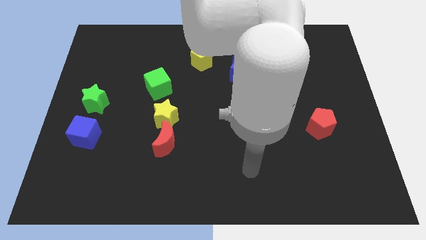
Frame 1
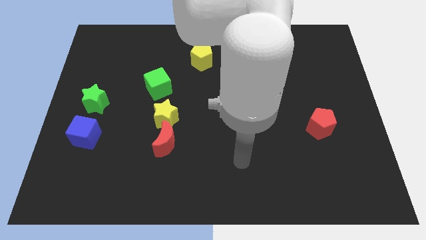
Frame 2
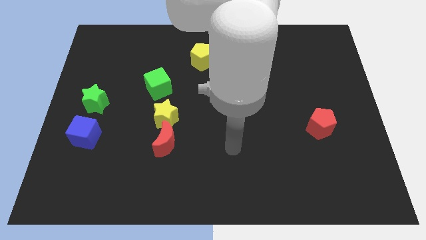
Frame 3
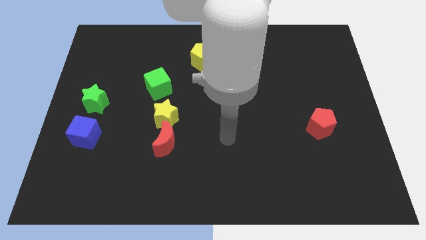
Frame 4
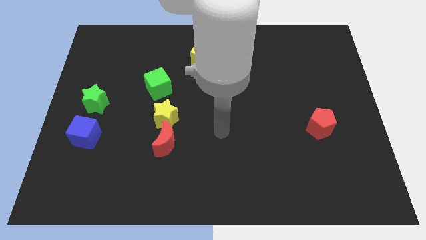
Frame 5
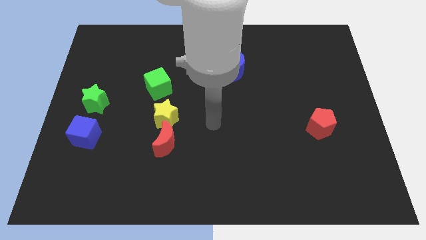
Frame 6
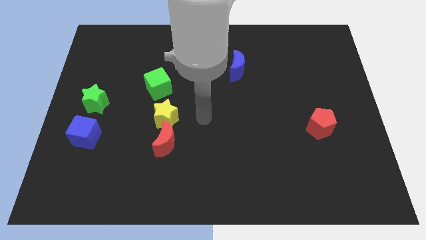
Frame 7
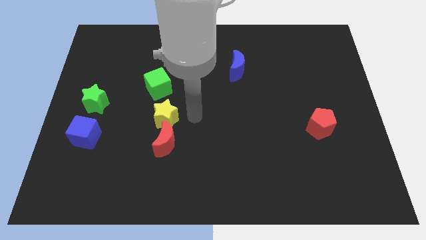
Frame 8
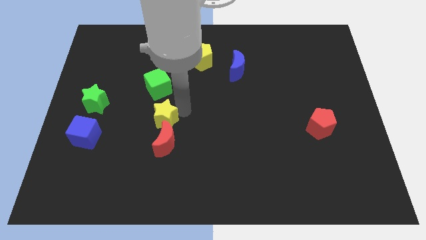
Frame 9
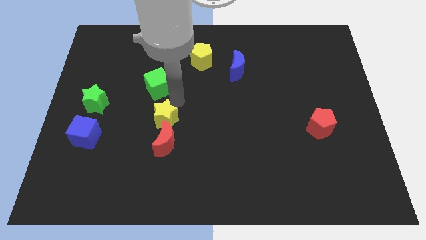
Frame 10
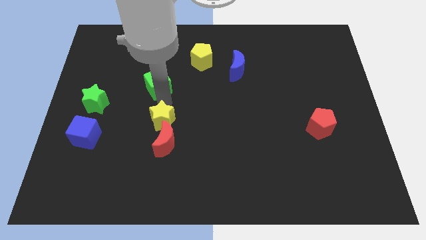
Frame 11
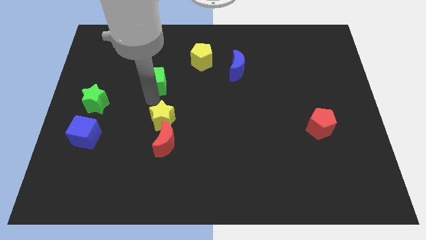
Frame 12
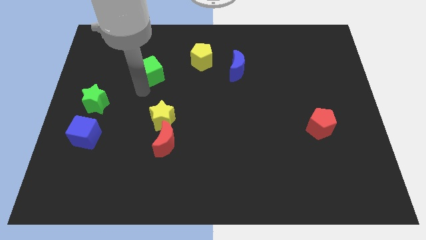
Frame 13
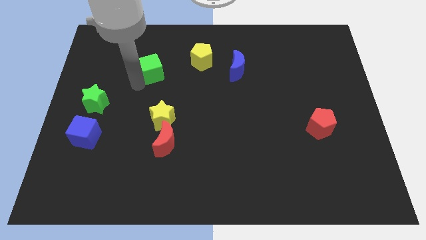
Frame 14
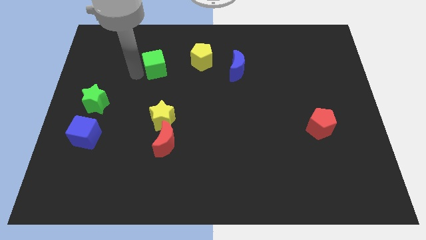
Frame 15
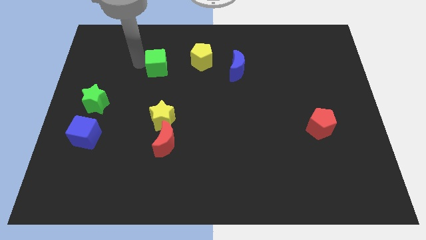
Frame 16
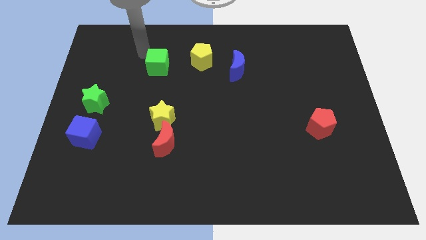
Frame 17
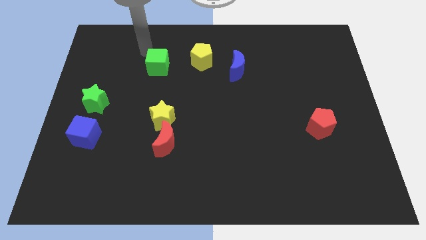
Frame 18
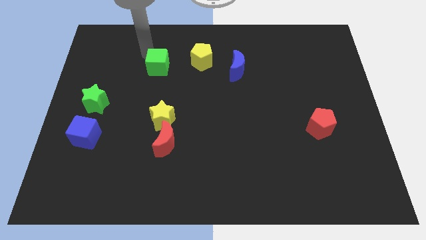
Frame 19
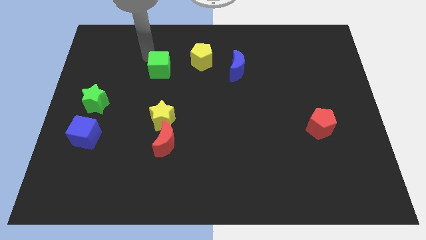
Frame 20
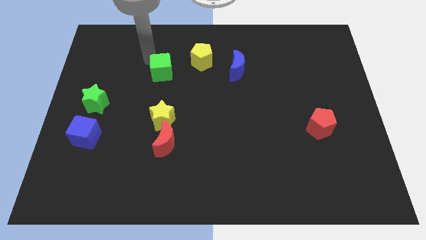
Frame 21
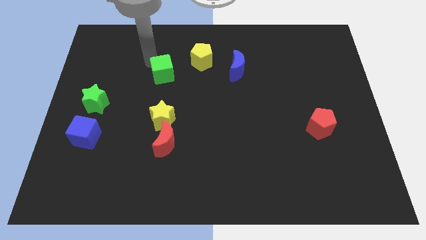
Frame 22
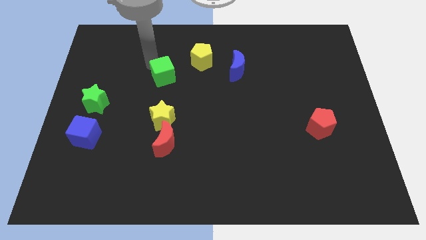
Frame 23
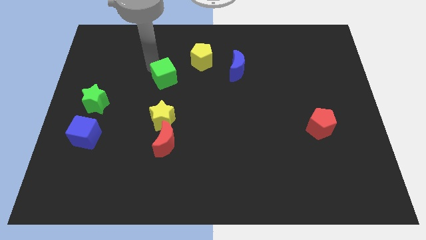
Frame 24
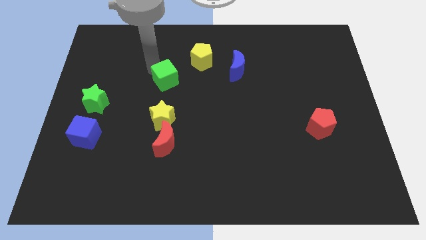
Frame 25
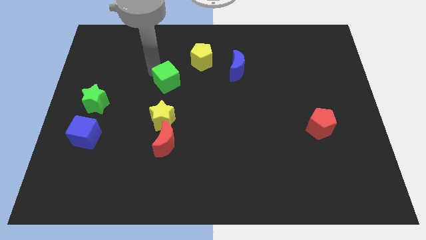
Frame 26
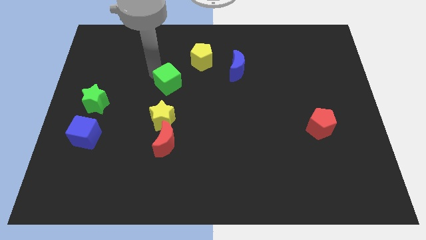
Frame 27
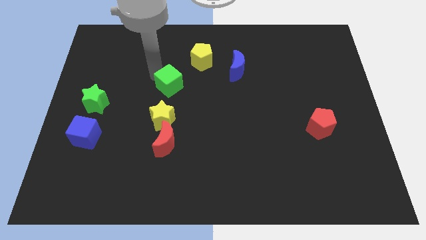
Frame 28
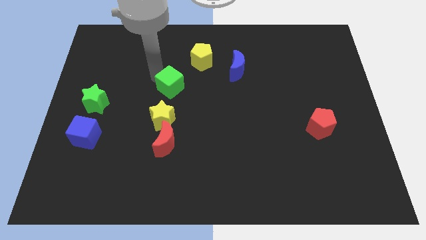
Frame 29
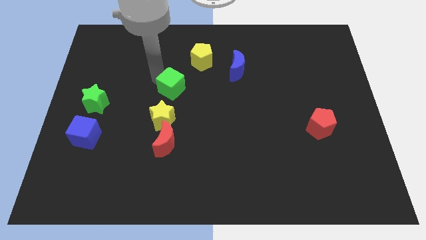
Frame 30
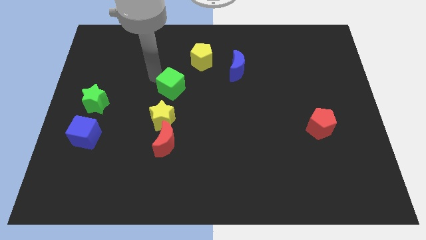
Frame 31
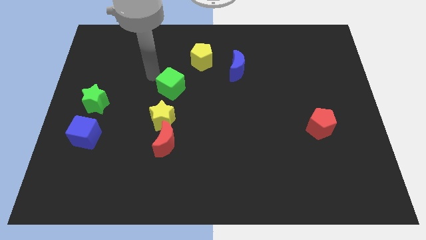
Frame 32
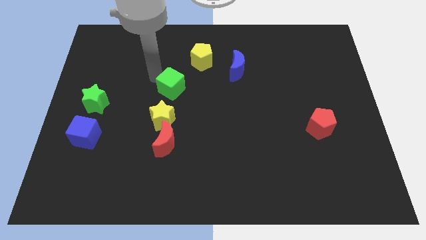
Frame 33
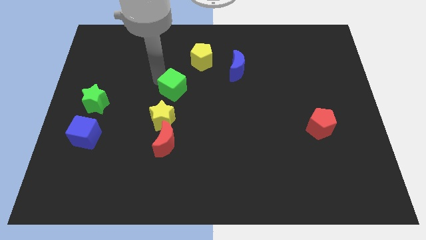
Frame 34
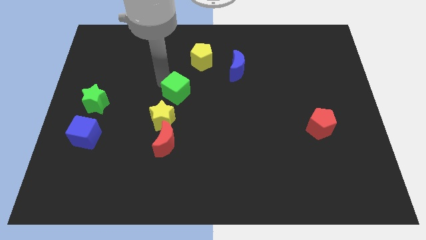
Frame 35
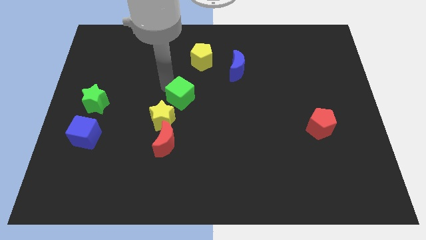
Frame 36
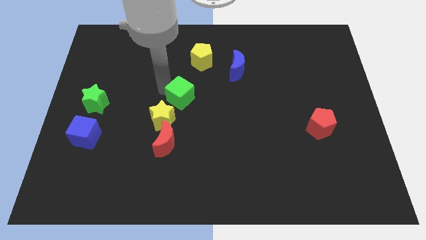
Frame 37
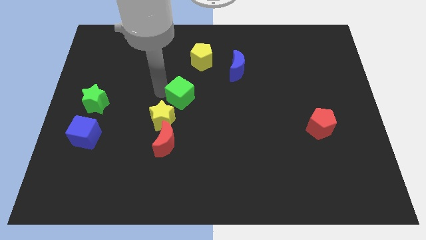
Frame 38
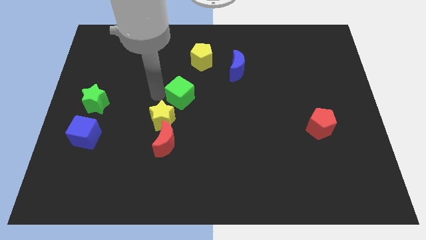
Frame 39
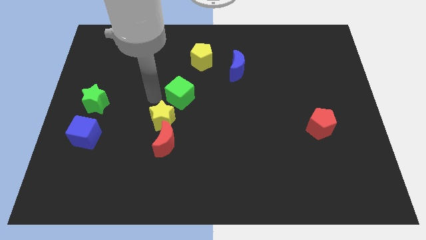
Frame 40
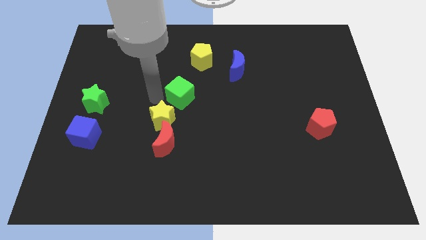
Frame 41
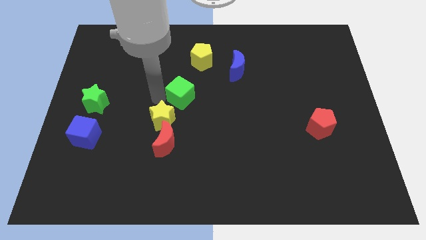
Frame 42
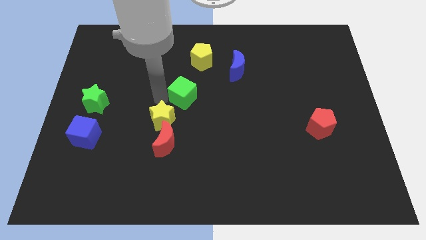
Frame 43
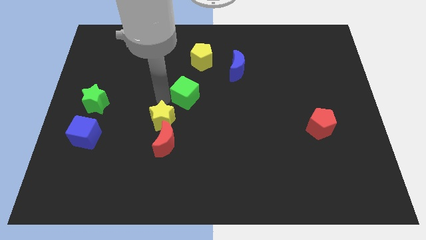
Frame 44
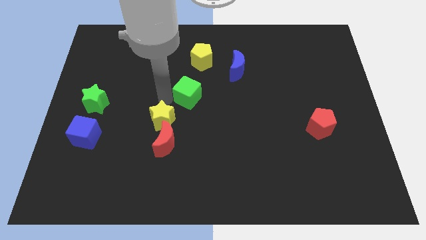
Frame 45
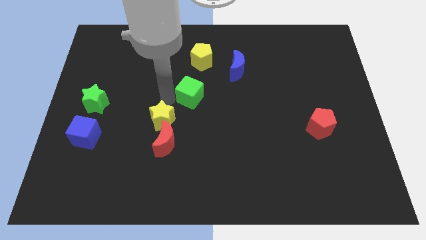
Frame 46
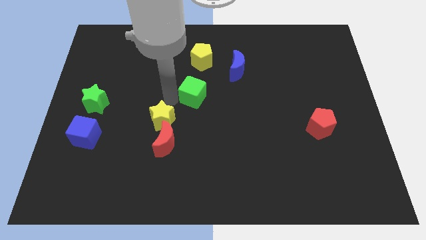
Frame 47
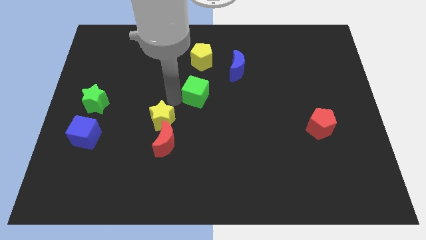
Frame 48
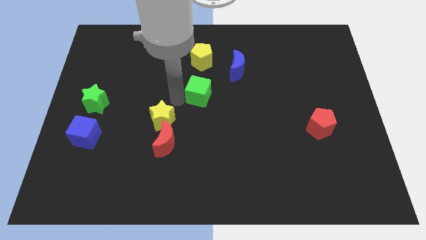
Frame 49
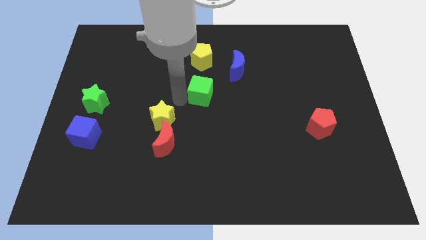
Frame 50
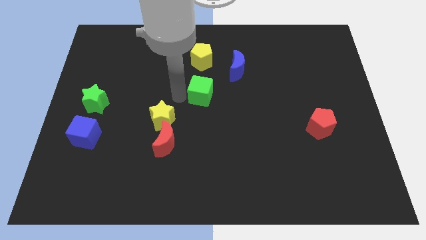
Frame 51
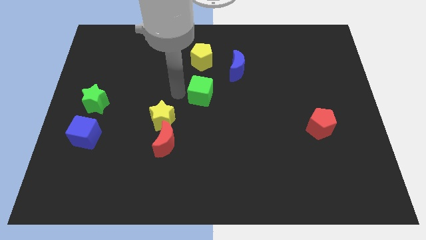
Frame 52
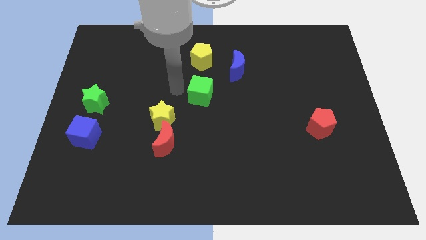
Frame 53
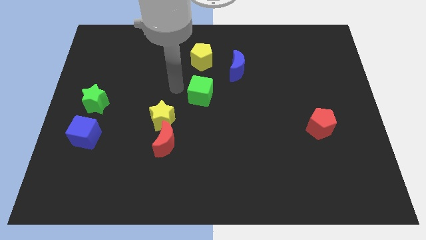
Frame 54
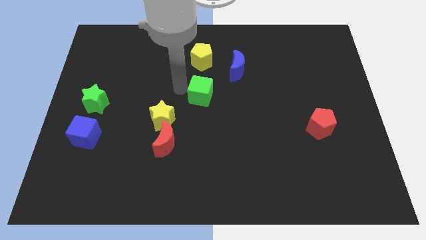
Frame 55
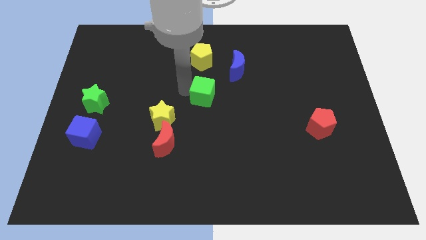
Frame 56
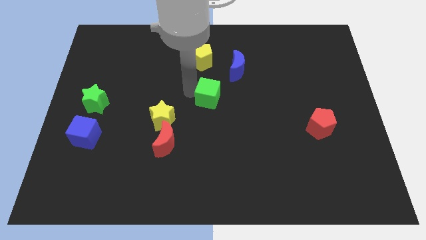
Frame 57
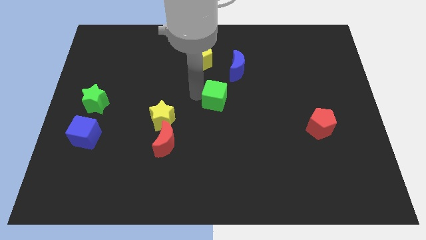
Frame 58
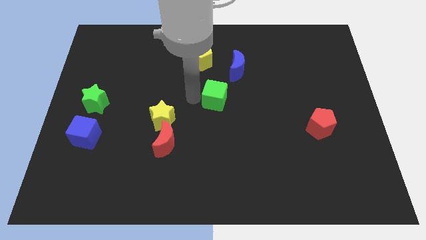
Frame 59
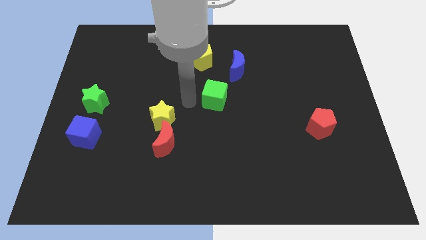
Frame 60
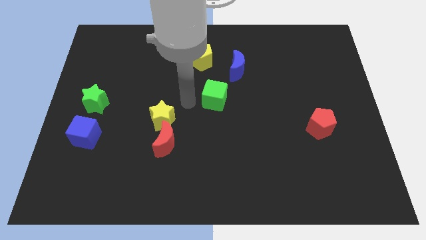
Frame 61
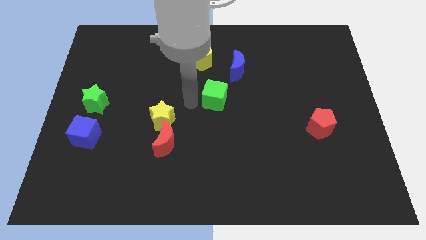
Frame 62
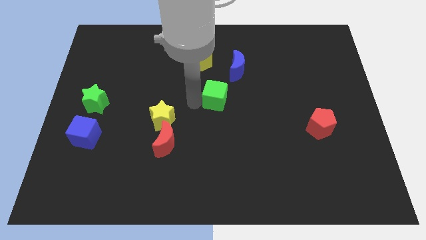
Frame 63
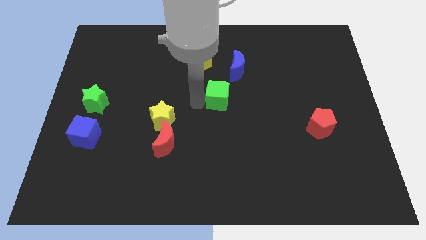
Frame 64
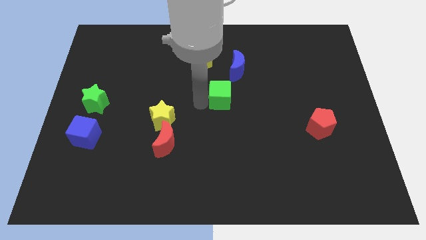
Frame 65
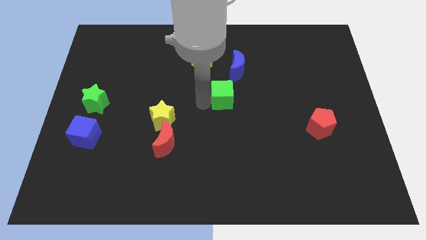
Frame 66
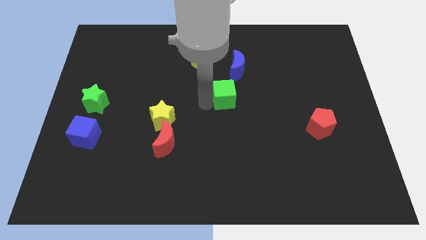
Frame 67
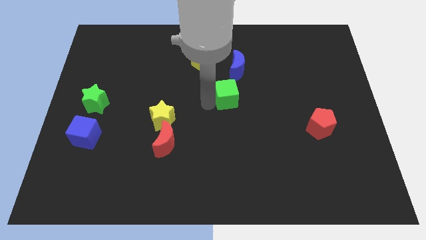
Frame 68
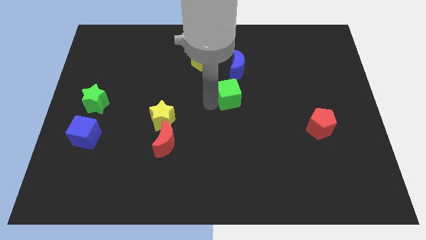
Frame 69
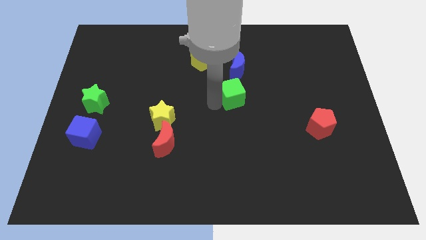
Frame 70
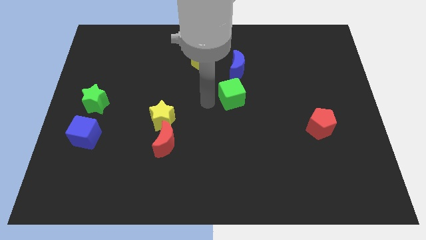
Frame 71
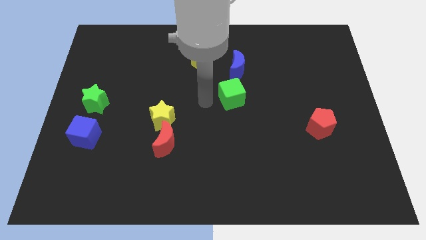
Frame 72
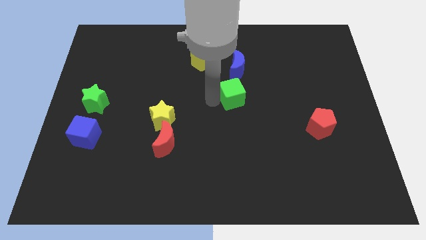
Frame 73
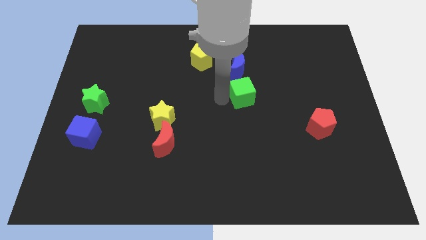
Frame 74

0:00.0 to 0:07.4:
push the green cube to the right

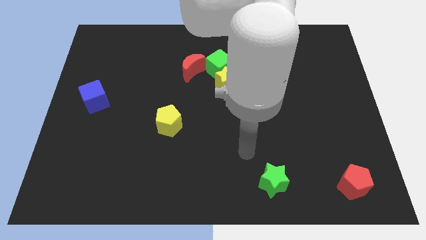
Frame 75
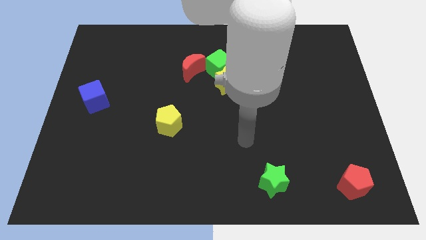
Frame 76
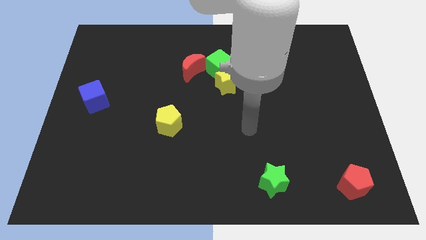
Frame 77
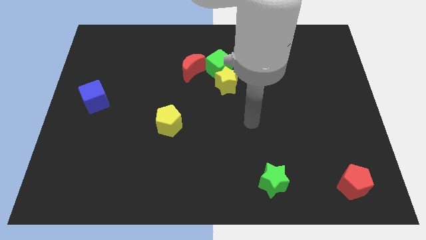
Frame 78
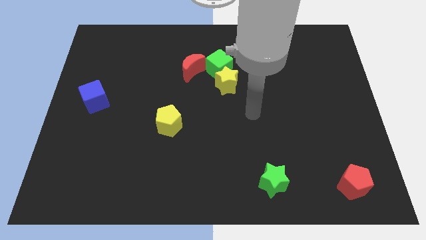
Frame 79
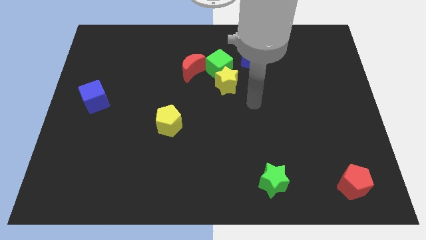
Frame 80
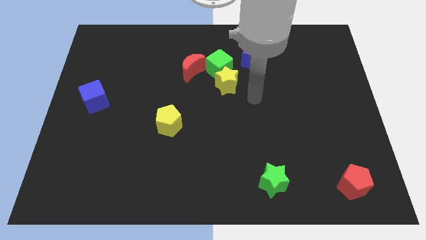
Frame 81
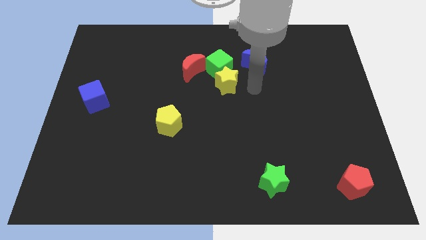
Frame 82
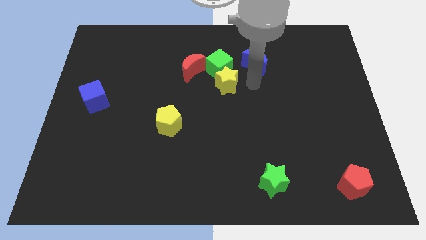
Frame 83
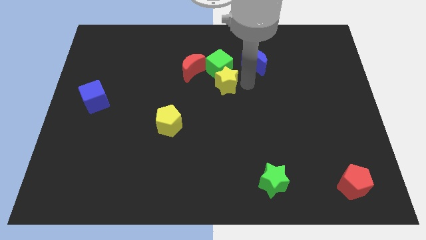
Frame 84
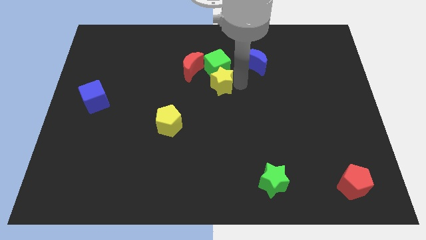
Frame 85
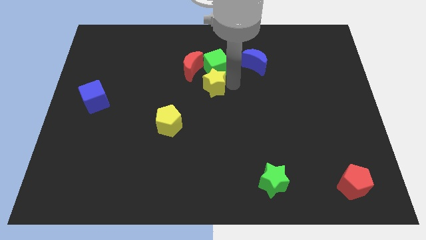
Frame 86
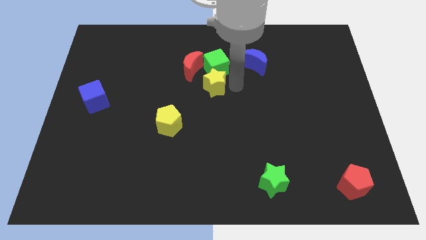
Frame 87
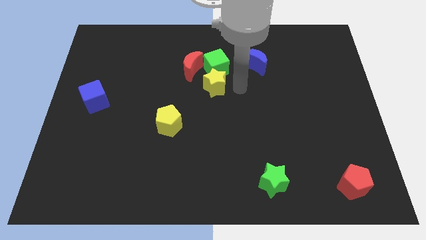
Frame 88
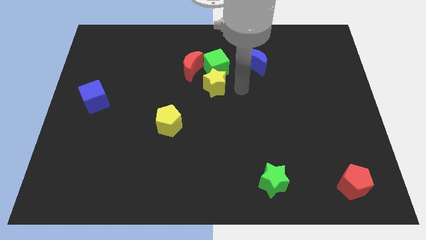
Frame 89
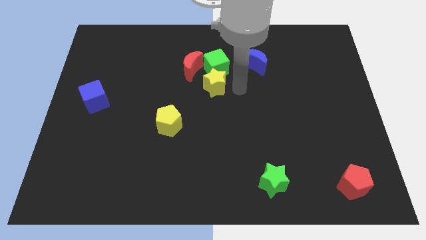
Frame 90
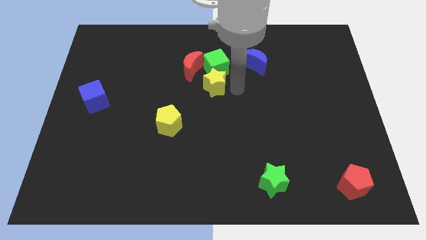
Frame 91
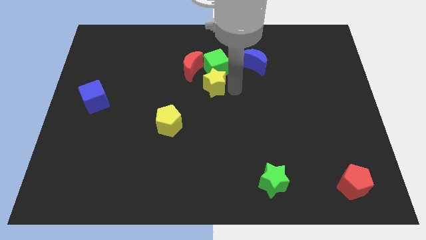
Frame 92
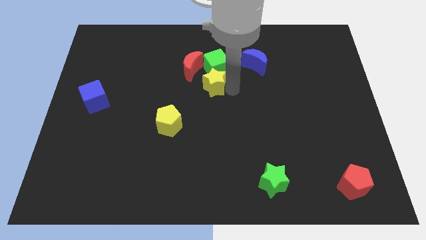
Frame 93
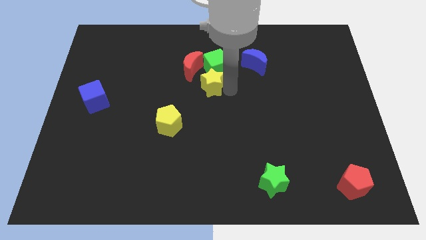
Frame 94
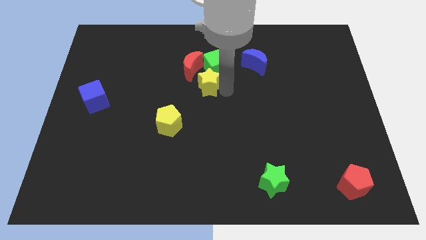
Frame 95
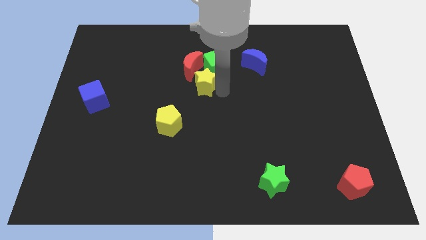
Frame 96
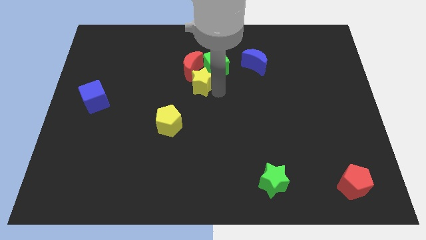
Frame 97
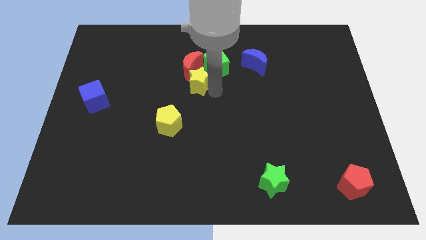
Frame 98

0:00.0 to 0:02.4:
push the yellow star slightly left
